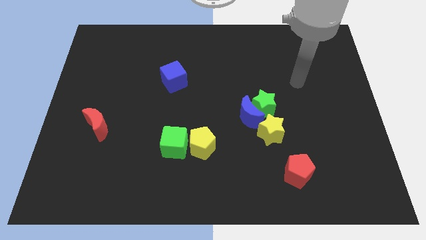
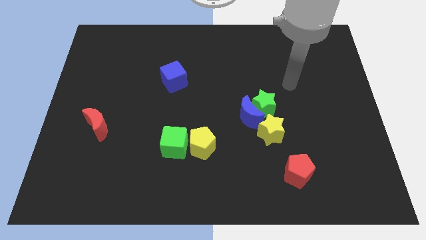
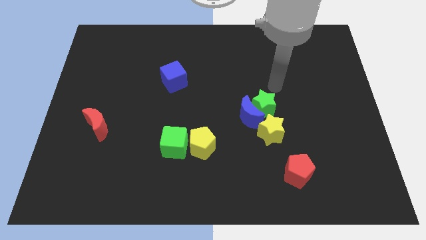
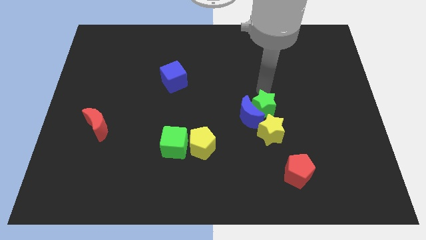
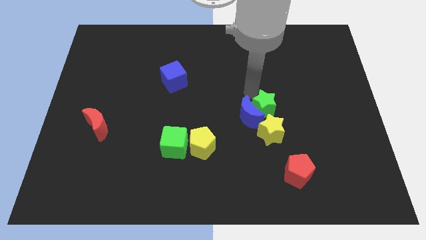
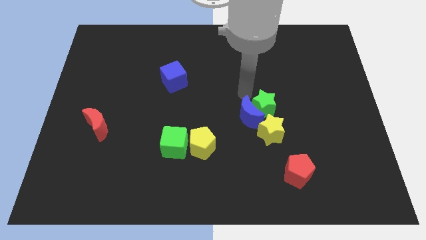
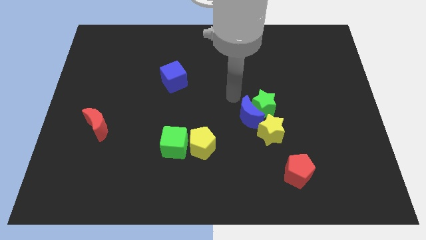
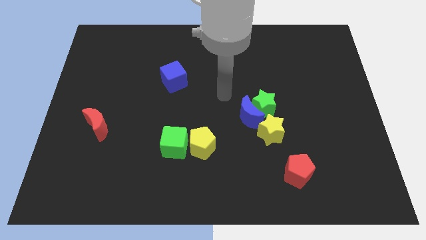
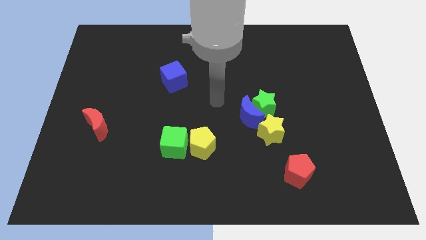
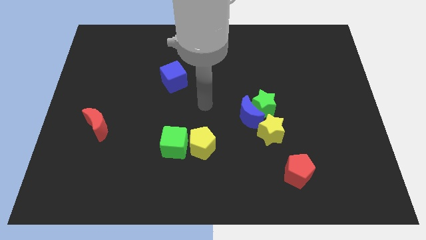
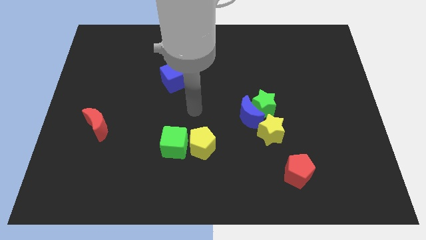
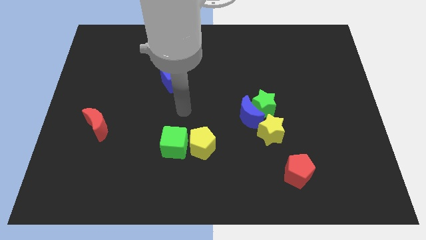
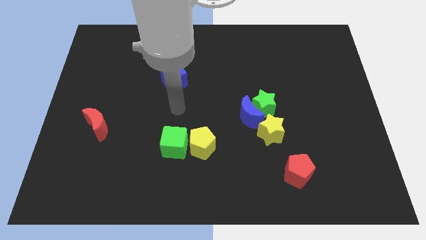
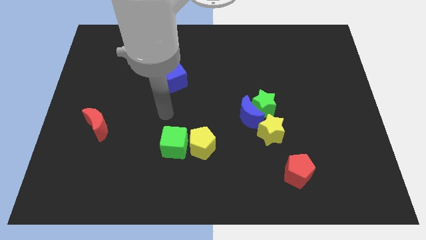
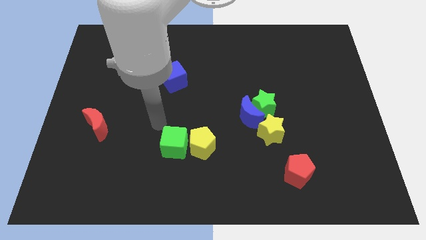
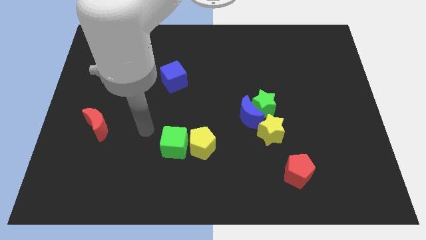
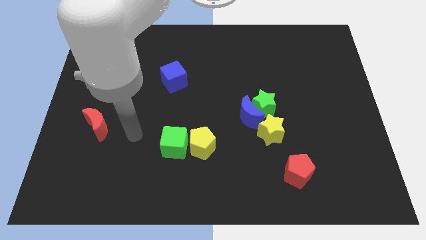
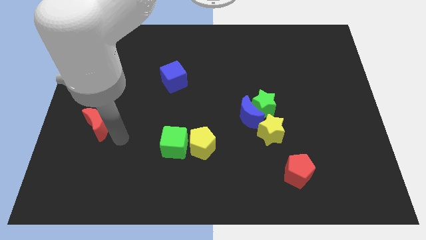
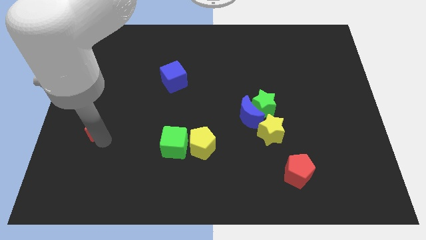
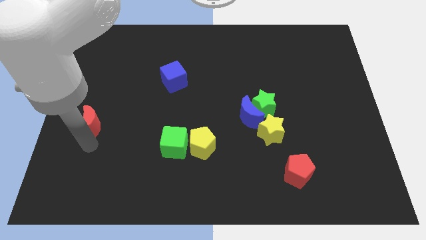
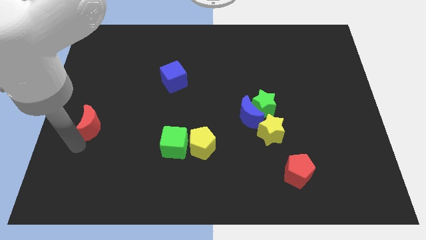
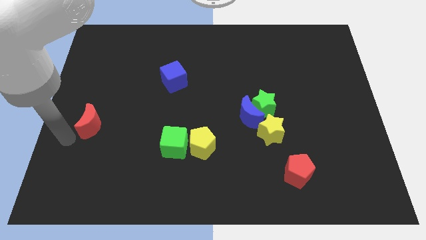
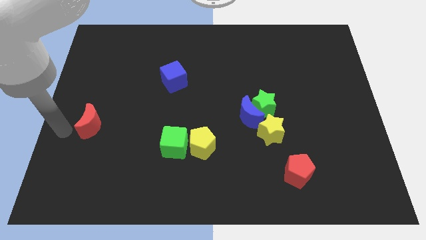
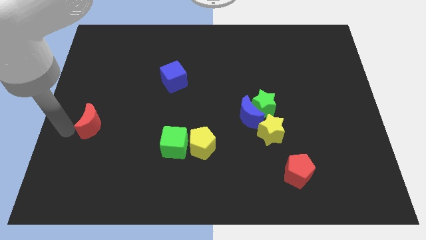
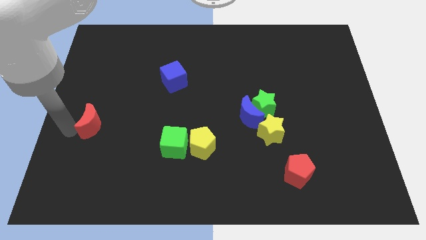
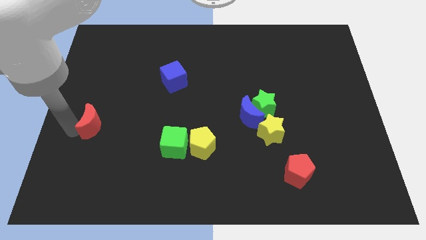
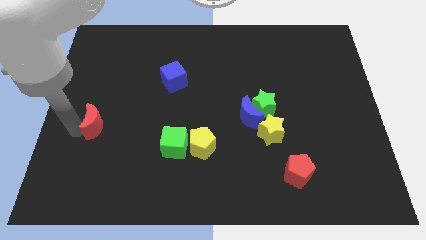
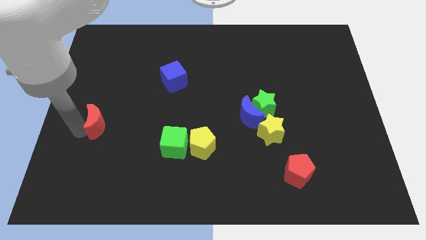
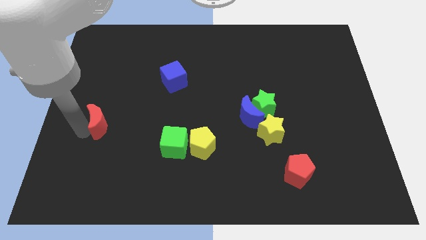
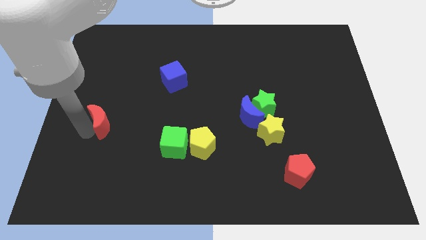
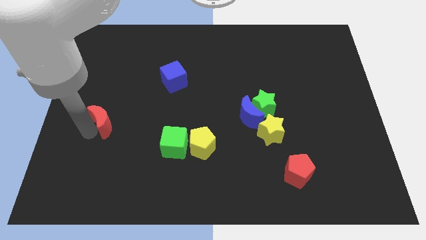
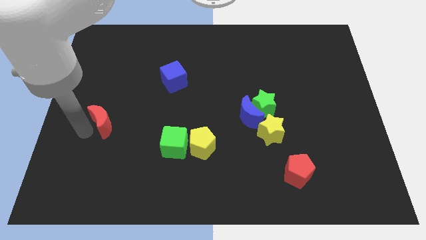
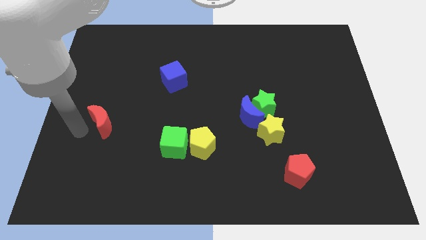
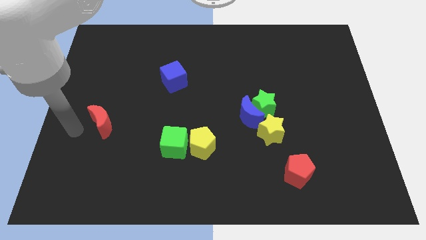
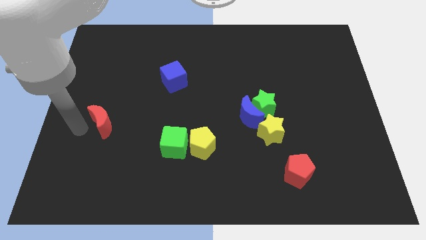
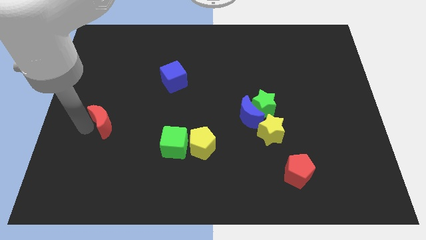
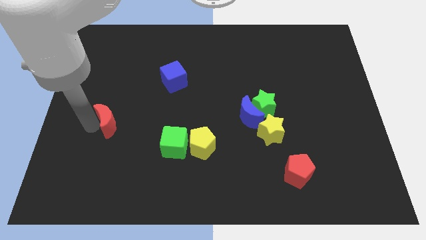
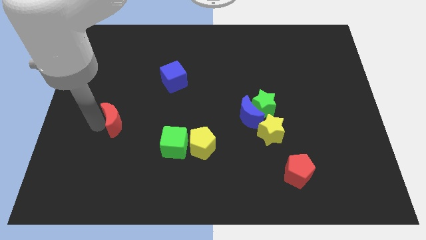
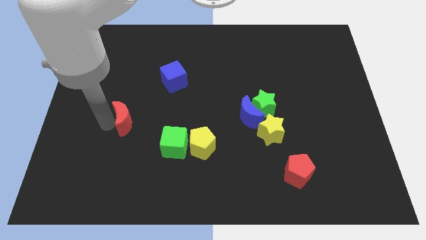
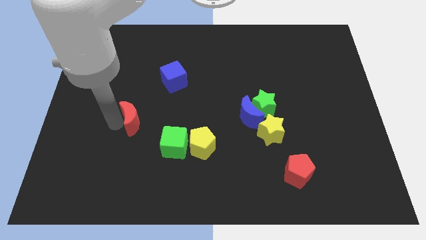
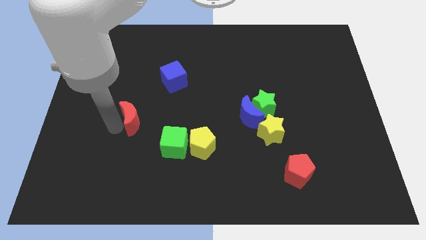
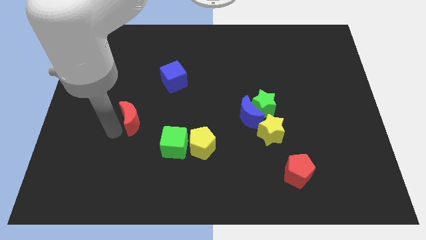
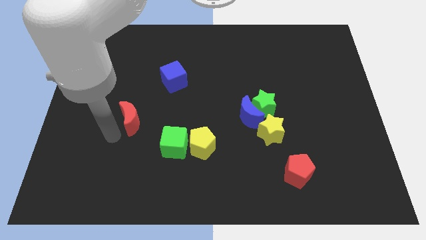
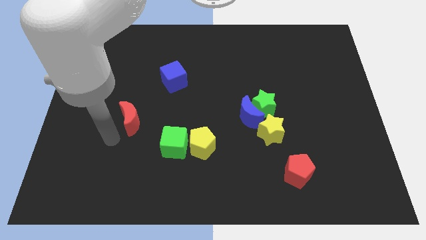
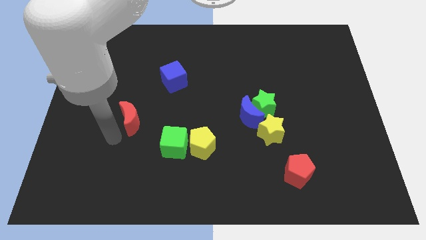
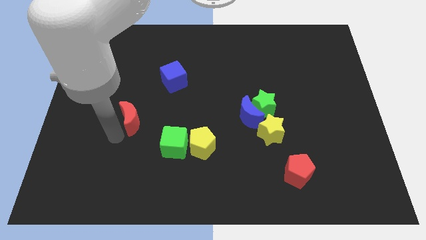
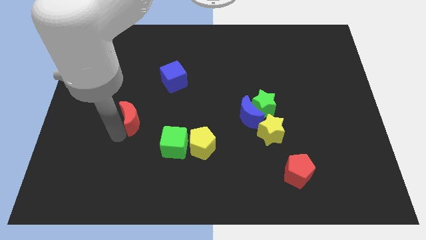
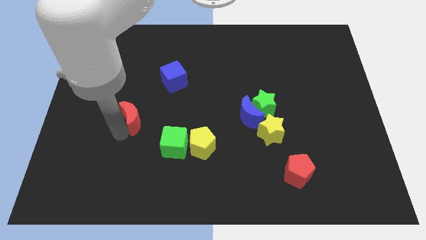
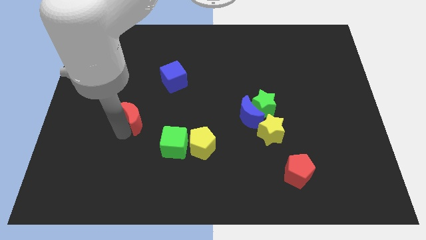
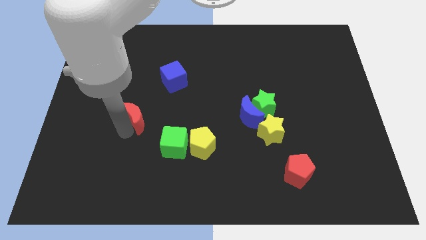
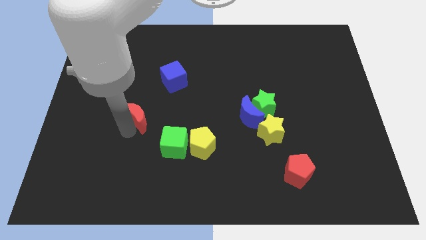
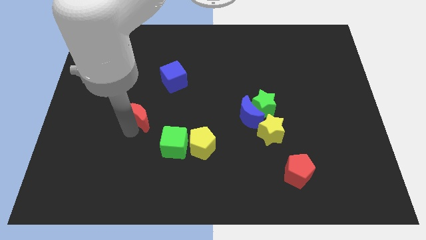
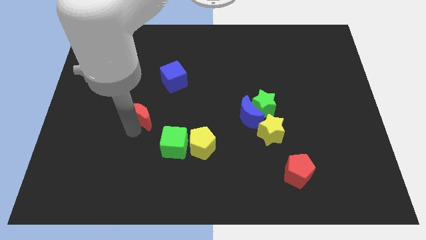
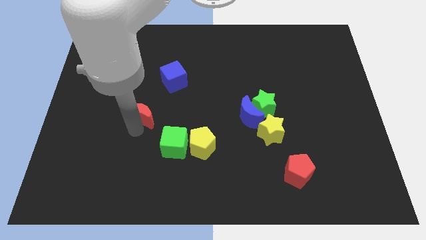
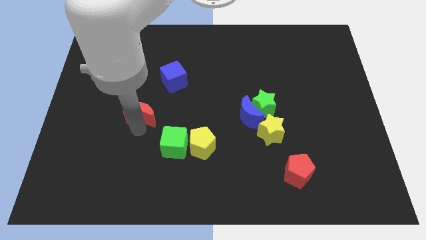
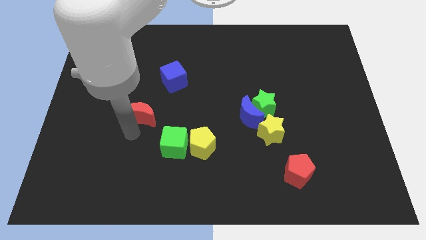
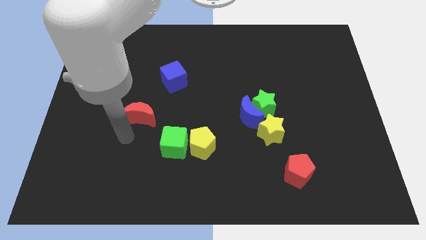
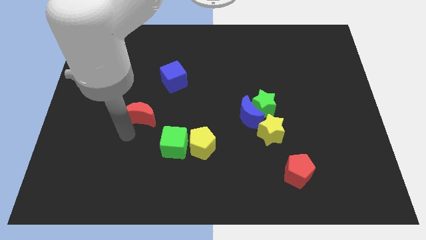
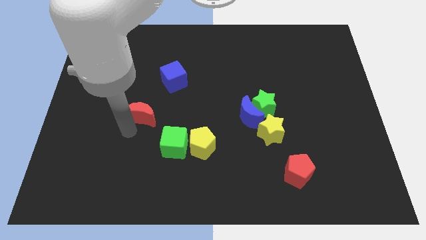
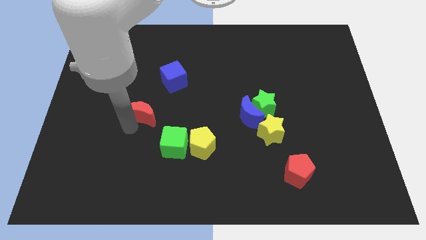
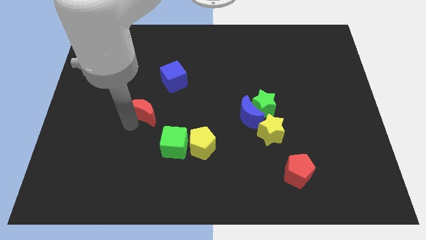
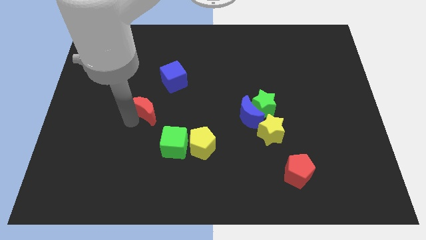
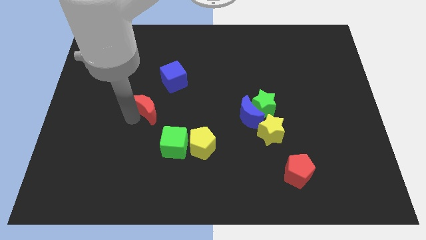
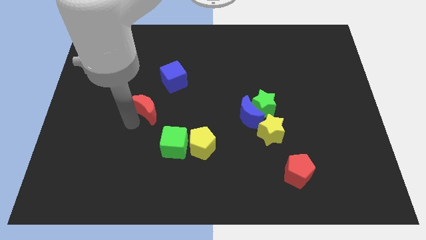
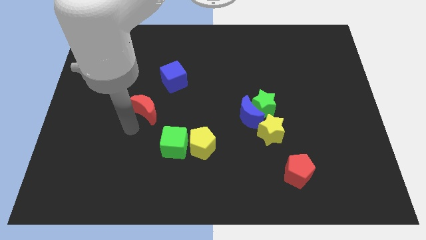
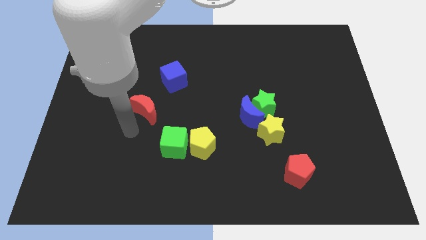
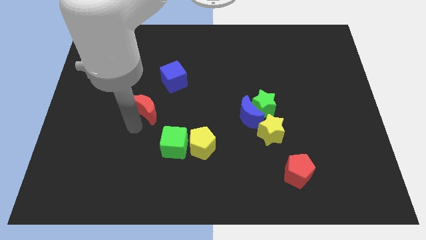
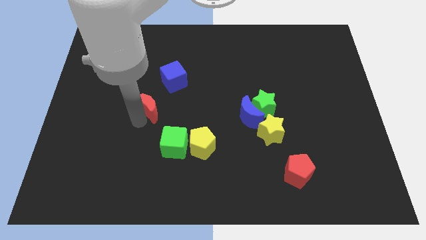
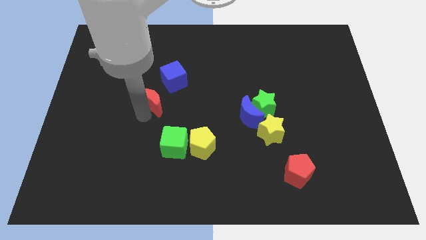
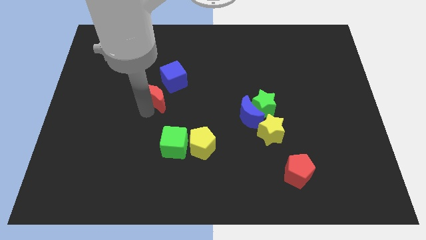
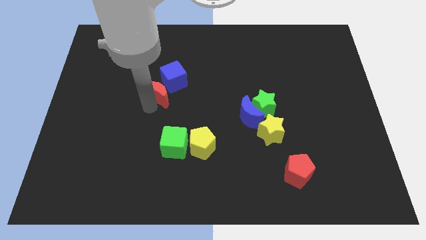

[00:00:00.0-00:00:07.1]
slide the red moon towards the blue cube
